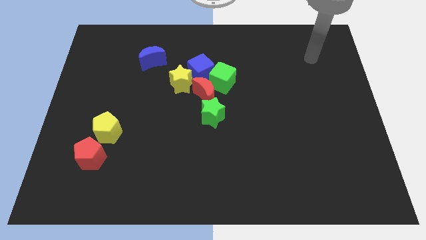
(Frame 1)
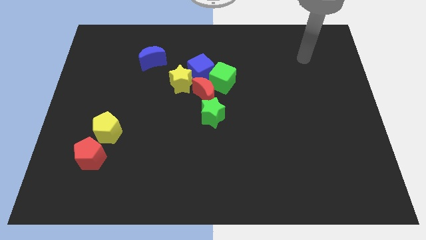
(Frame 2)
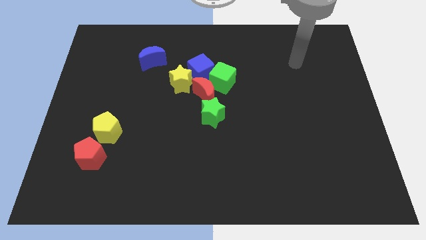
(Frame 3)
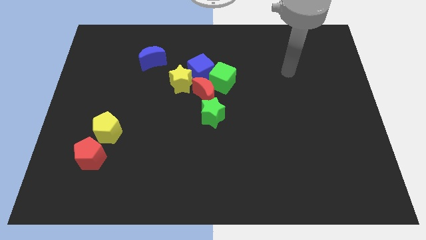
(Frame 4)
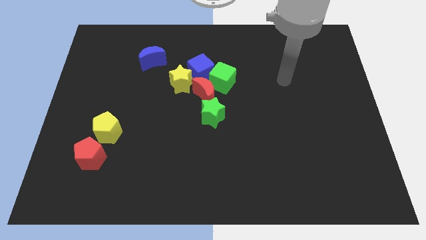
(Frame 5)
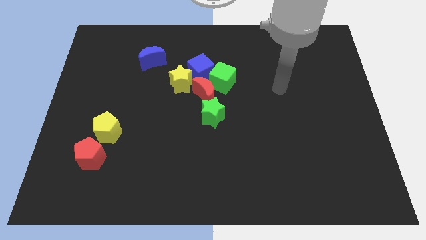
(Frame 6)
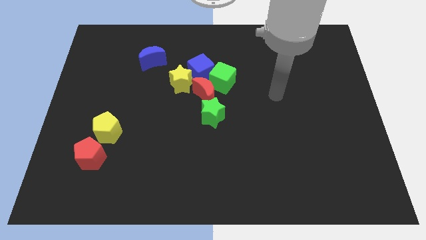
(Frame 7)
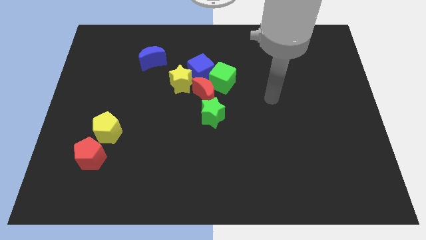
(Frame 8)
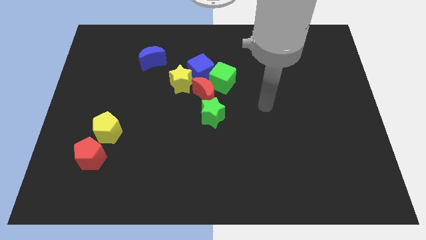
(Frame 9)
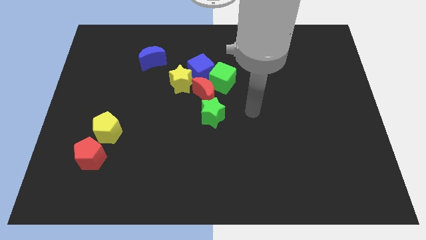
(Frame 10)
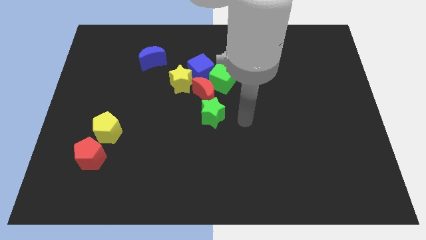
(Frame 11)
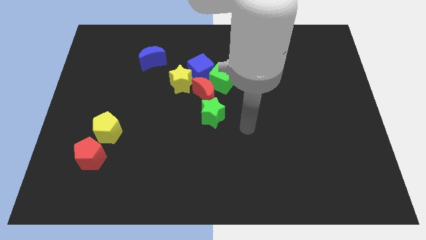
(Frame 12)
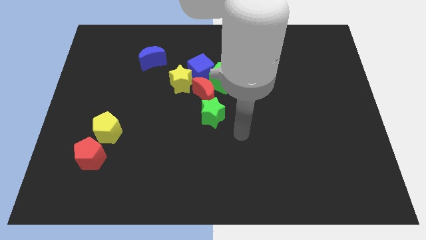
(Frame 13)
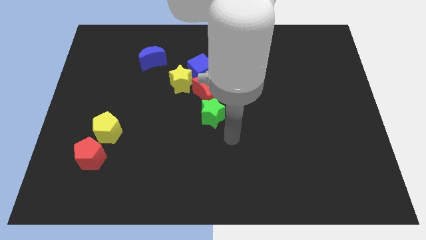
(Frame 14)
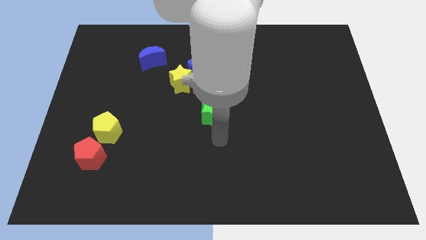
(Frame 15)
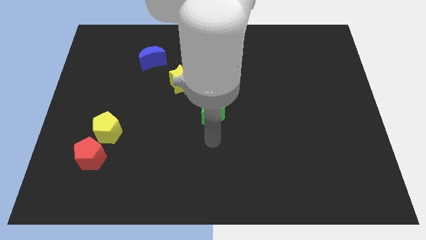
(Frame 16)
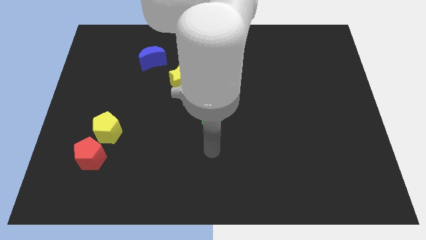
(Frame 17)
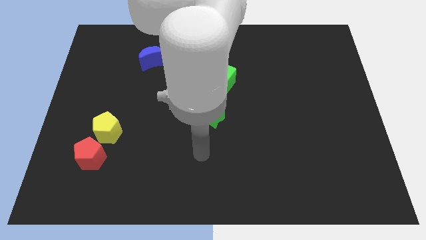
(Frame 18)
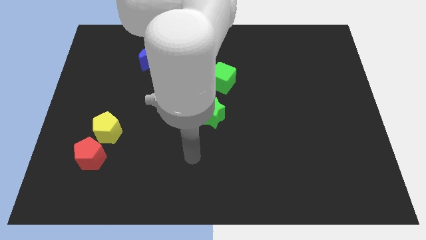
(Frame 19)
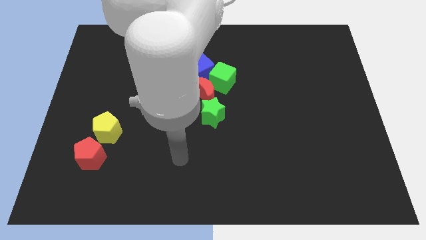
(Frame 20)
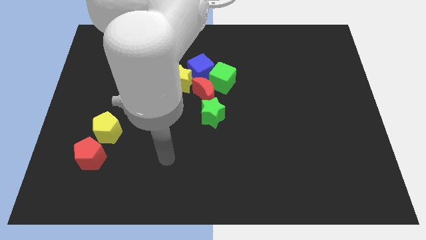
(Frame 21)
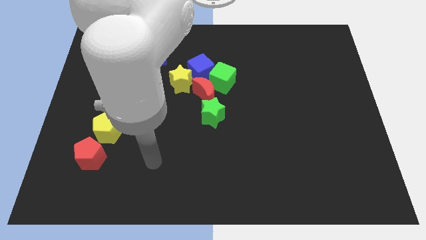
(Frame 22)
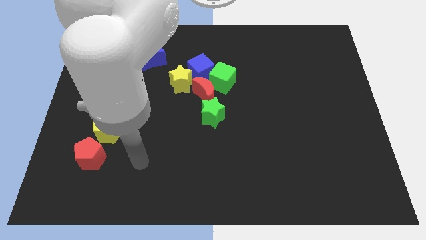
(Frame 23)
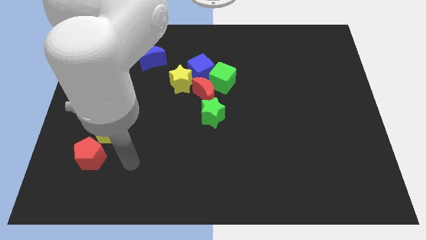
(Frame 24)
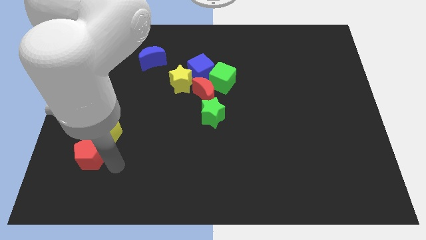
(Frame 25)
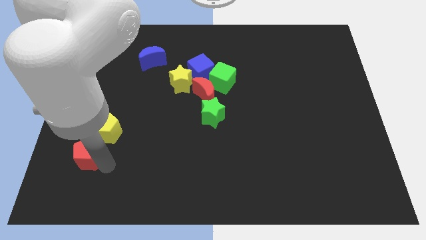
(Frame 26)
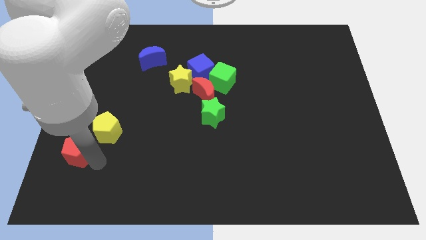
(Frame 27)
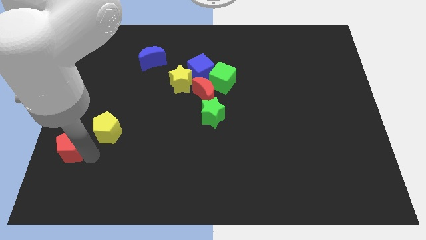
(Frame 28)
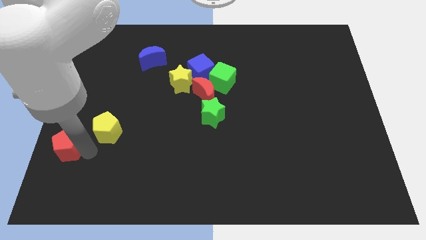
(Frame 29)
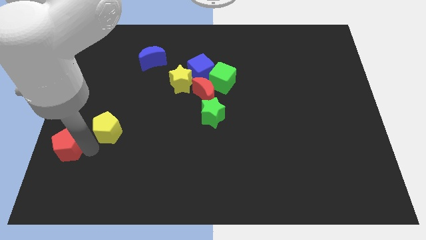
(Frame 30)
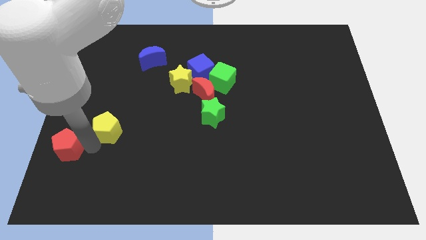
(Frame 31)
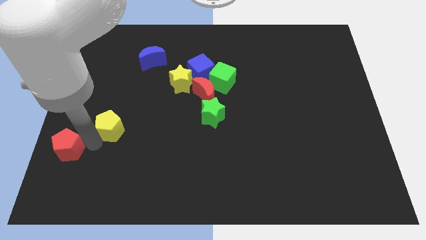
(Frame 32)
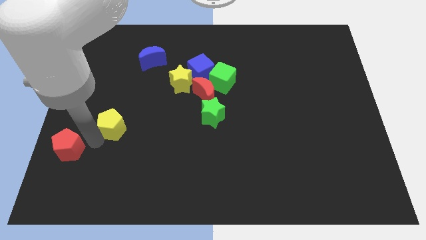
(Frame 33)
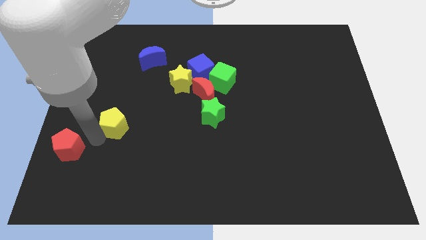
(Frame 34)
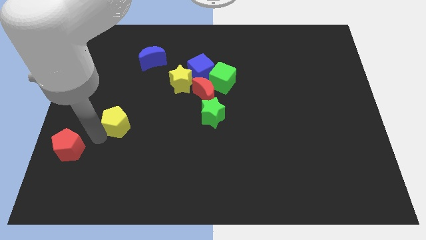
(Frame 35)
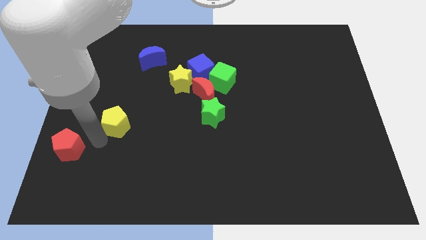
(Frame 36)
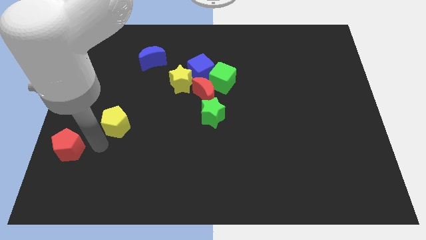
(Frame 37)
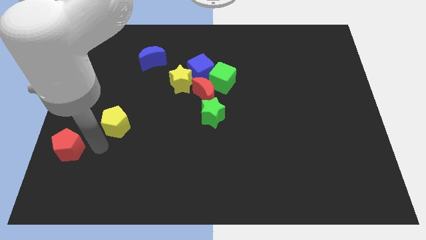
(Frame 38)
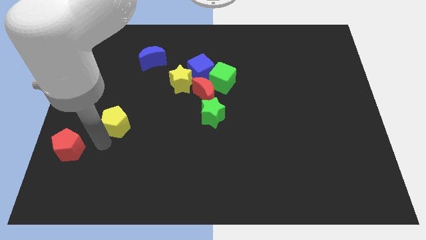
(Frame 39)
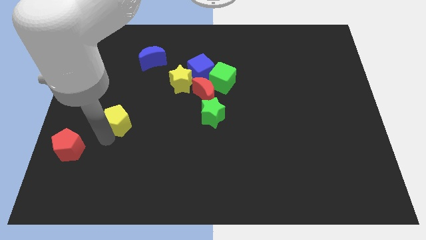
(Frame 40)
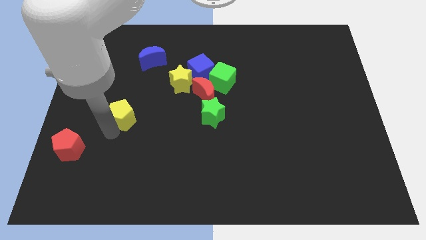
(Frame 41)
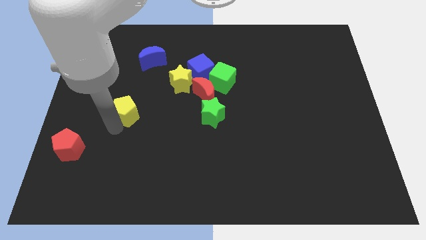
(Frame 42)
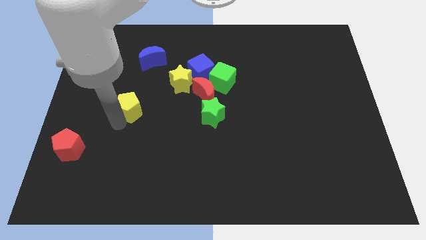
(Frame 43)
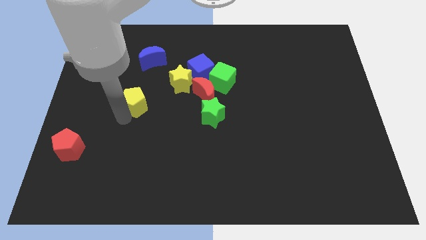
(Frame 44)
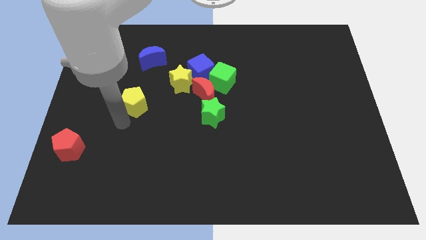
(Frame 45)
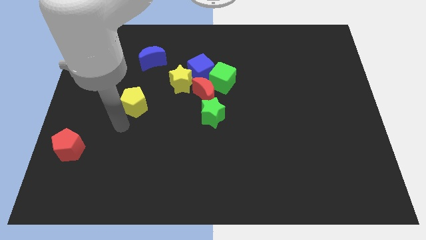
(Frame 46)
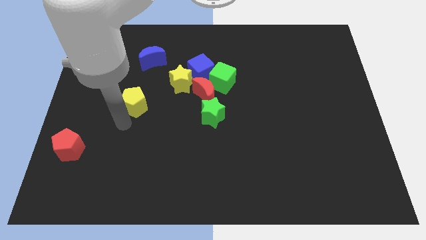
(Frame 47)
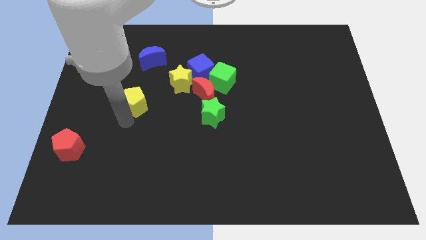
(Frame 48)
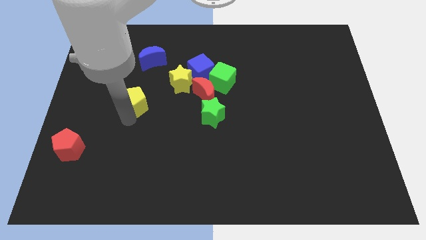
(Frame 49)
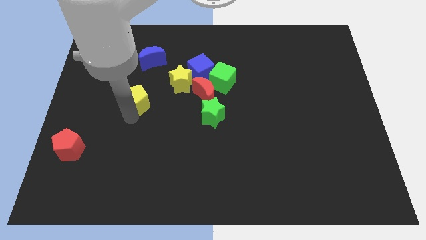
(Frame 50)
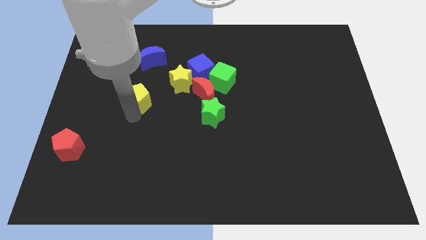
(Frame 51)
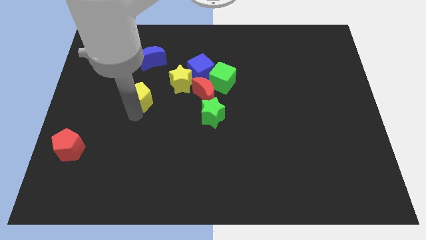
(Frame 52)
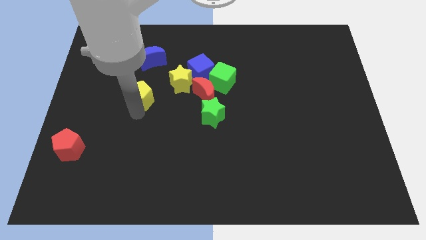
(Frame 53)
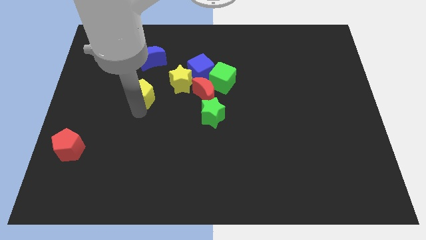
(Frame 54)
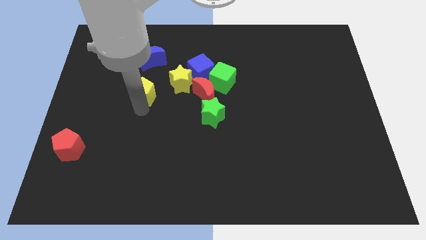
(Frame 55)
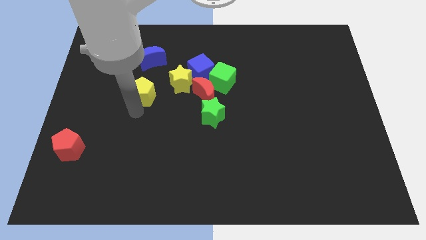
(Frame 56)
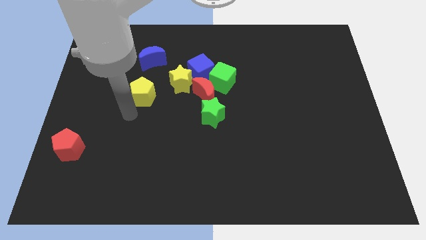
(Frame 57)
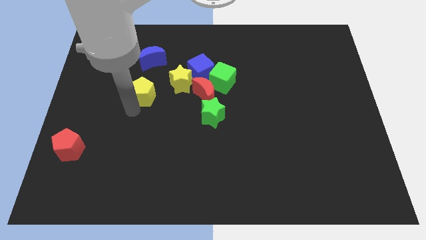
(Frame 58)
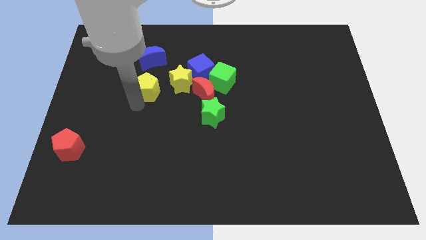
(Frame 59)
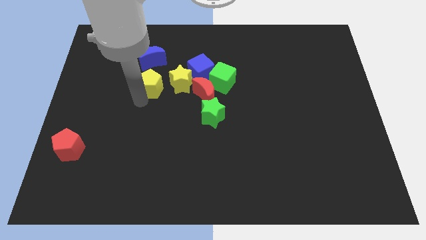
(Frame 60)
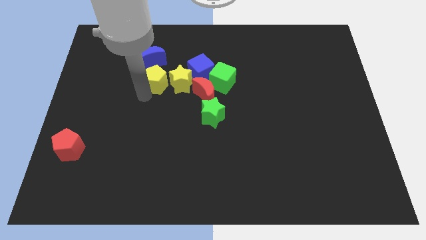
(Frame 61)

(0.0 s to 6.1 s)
put the yellow pentagon diagonally down and to the right of the blue moon

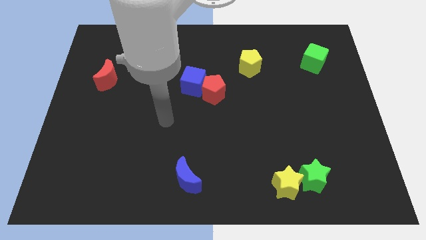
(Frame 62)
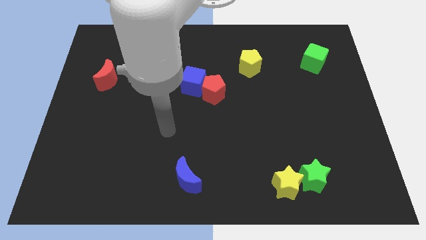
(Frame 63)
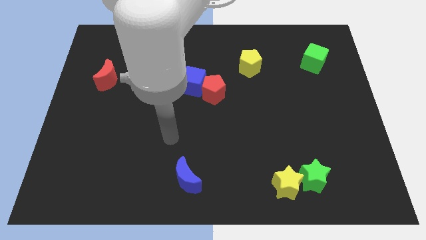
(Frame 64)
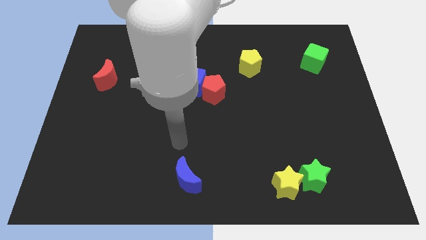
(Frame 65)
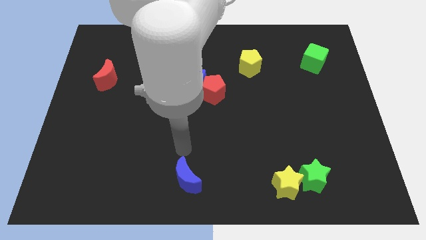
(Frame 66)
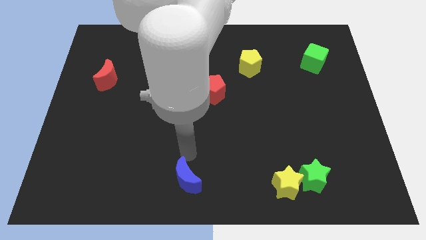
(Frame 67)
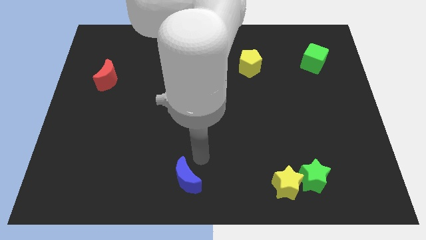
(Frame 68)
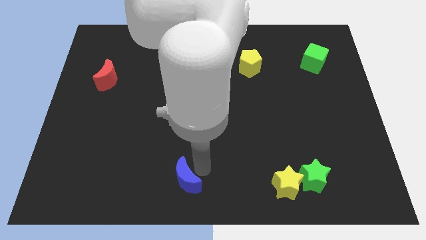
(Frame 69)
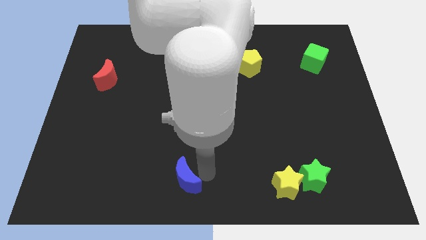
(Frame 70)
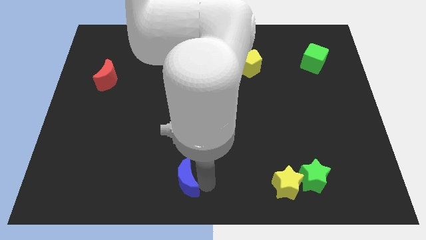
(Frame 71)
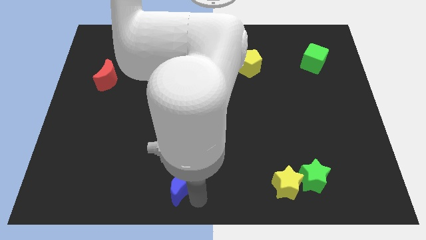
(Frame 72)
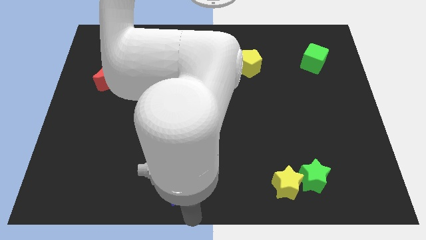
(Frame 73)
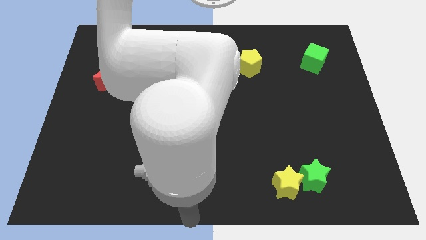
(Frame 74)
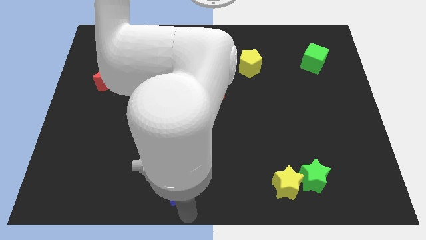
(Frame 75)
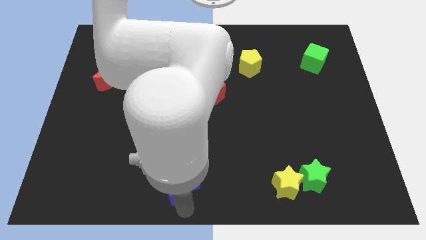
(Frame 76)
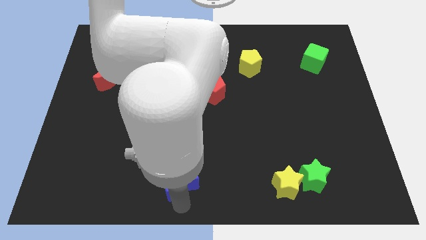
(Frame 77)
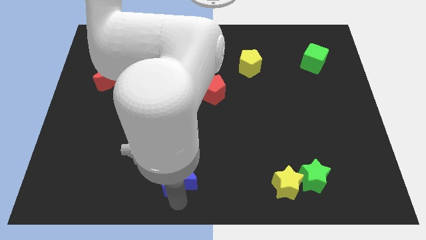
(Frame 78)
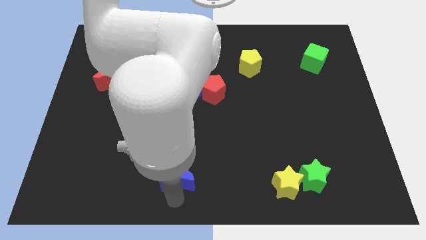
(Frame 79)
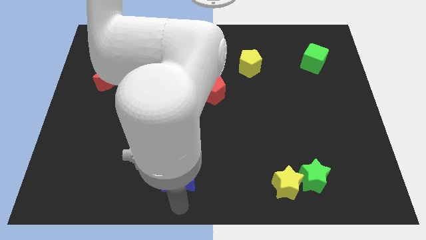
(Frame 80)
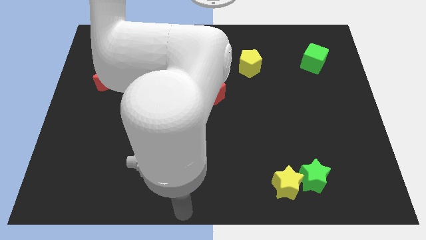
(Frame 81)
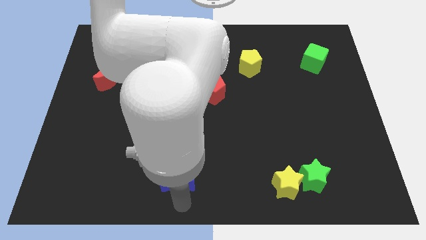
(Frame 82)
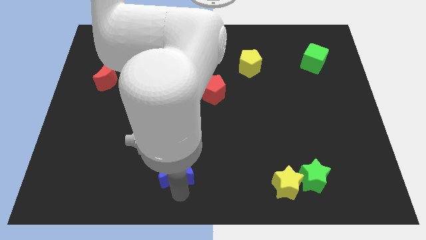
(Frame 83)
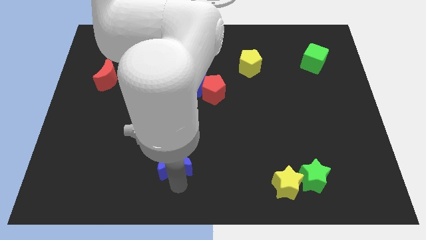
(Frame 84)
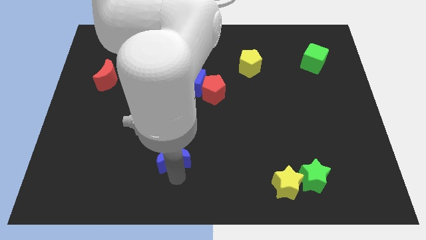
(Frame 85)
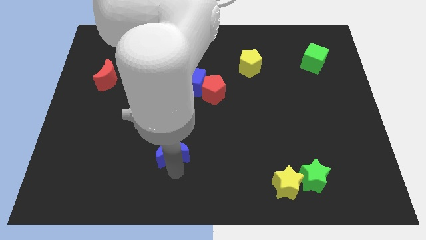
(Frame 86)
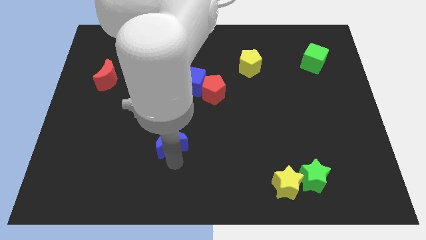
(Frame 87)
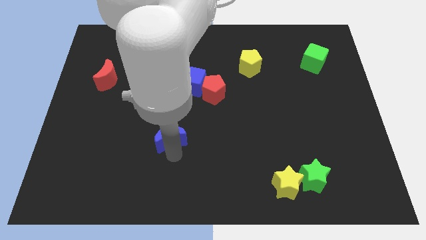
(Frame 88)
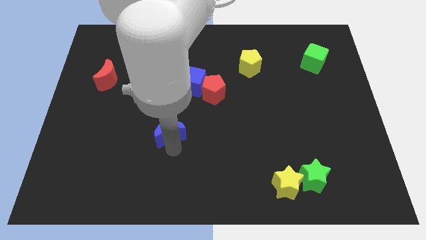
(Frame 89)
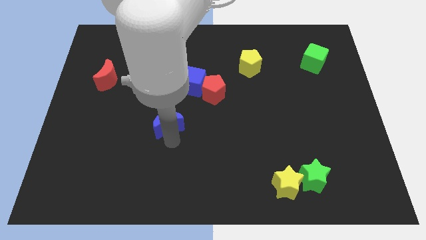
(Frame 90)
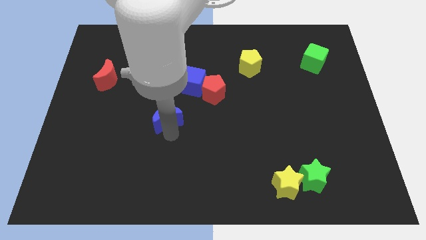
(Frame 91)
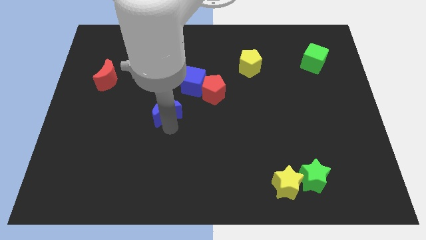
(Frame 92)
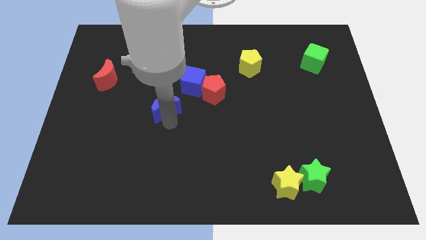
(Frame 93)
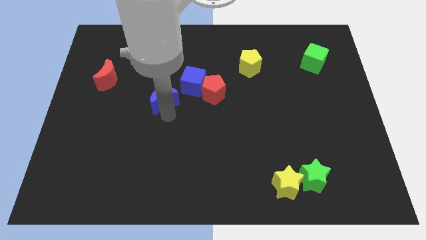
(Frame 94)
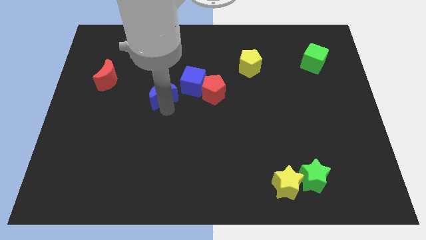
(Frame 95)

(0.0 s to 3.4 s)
slide the blue moon to the left side of the blue cube
